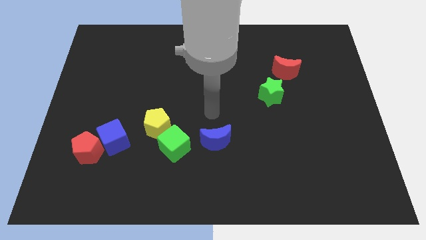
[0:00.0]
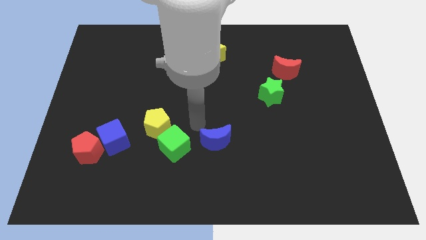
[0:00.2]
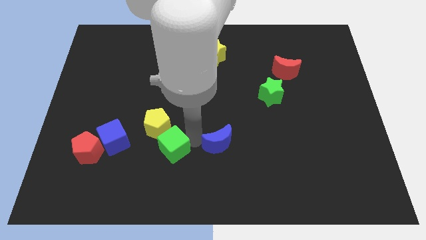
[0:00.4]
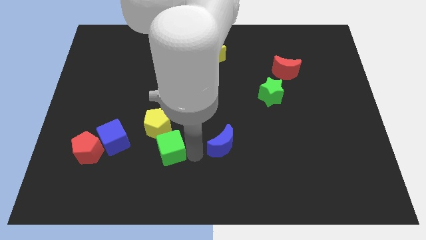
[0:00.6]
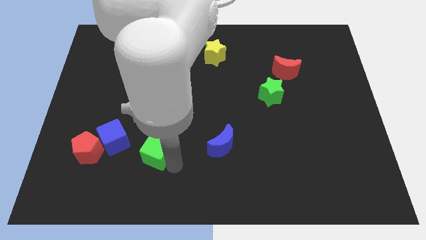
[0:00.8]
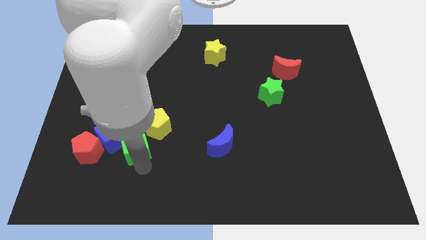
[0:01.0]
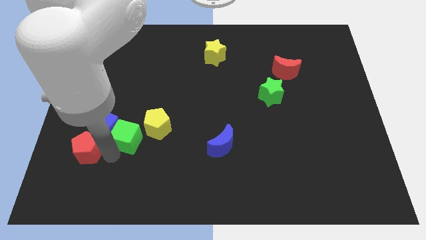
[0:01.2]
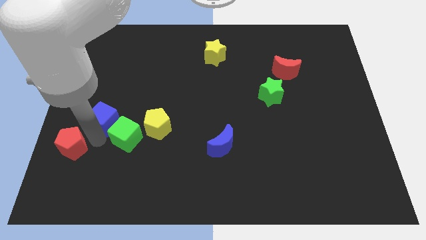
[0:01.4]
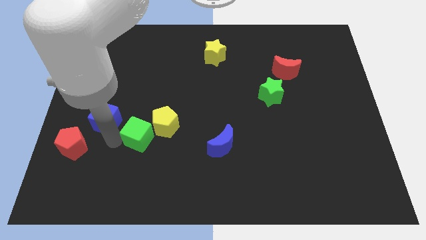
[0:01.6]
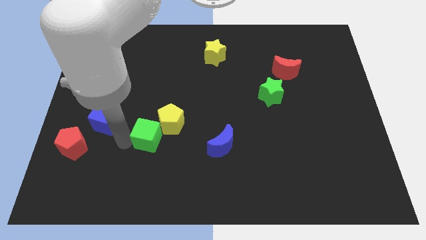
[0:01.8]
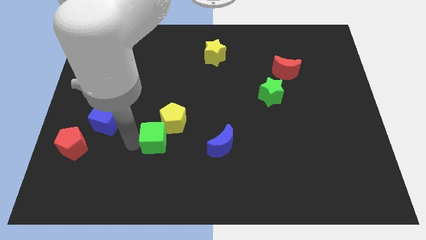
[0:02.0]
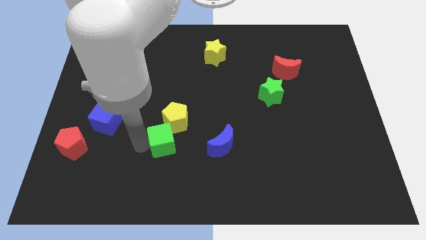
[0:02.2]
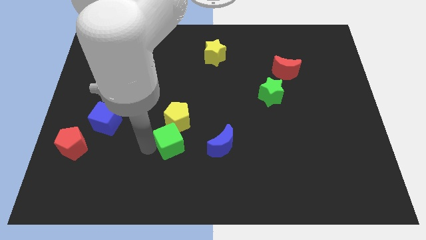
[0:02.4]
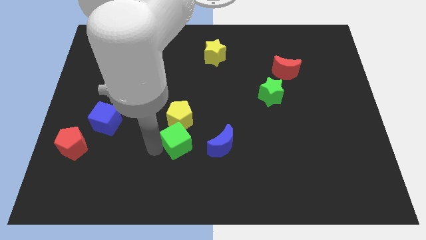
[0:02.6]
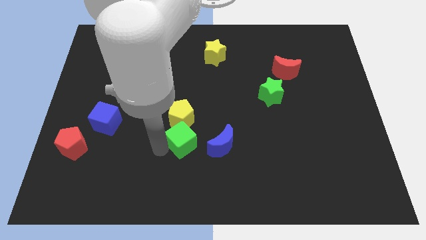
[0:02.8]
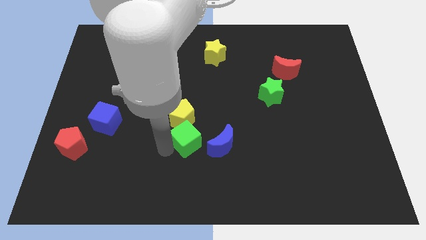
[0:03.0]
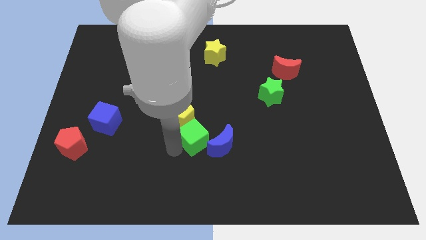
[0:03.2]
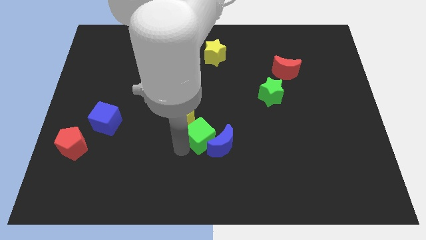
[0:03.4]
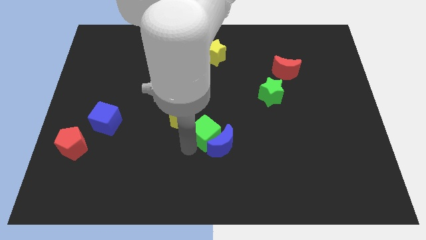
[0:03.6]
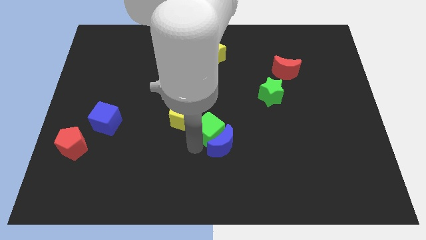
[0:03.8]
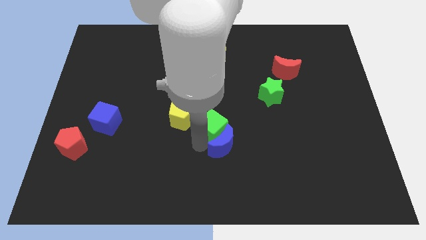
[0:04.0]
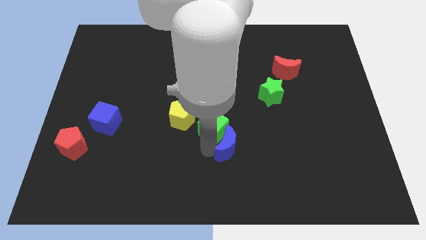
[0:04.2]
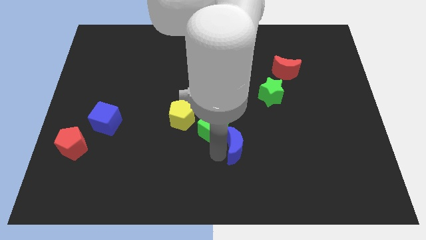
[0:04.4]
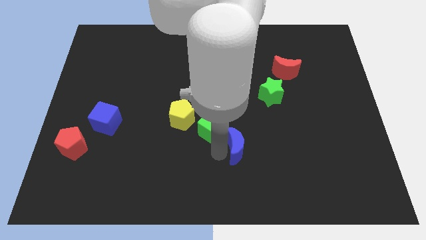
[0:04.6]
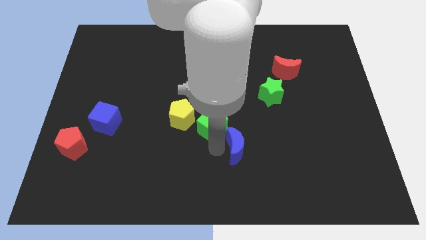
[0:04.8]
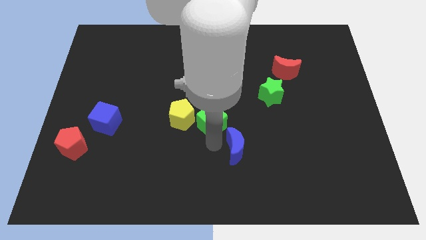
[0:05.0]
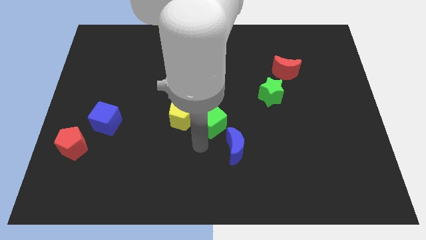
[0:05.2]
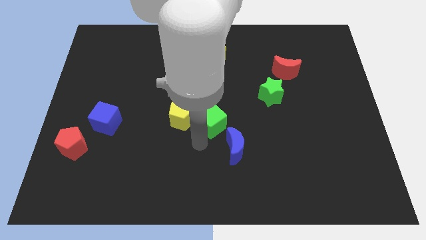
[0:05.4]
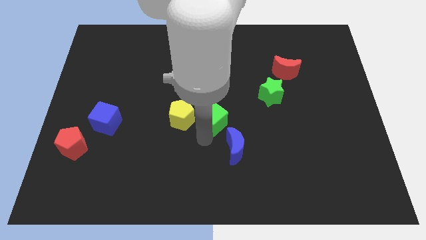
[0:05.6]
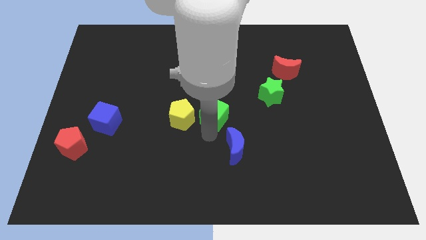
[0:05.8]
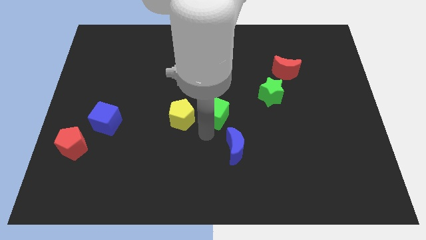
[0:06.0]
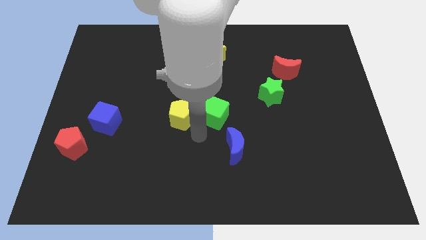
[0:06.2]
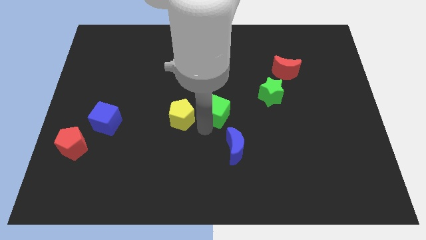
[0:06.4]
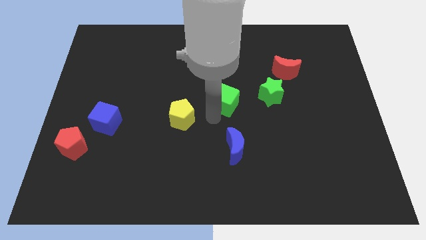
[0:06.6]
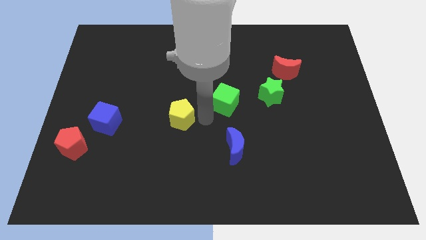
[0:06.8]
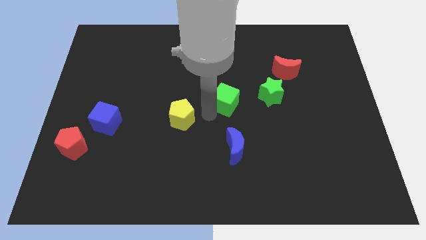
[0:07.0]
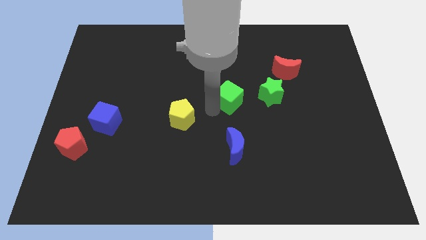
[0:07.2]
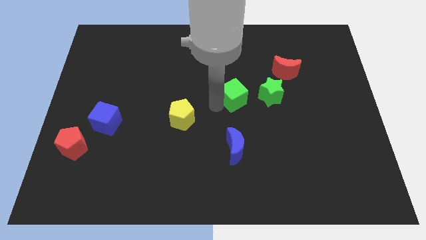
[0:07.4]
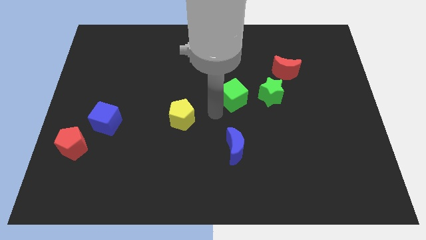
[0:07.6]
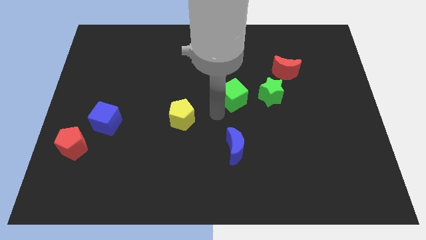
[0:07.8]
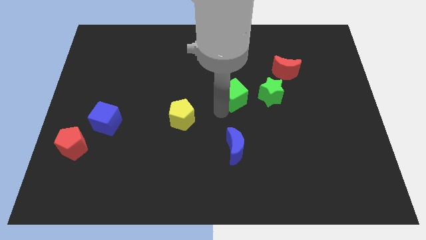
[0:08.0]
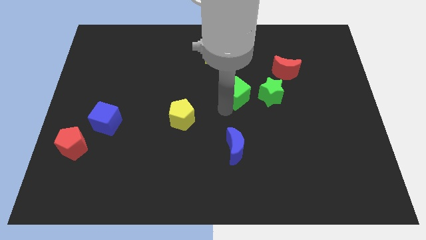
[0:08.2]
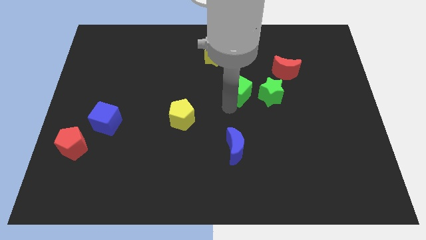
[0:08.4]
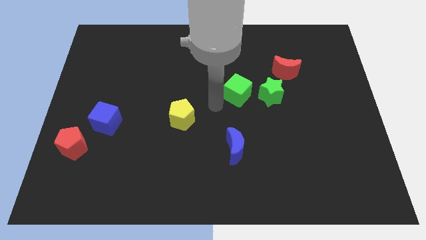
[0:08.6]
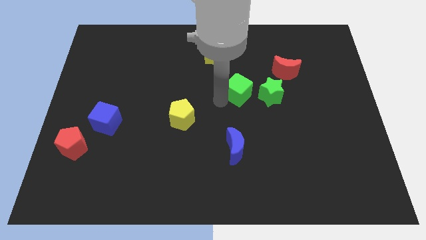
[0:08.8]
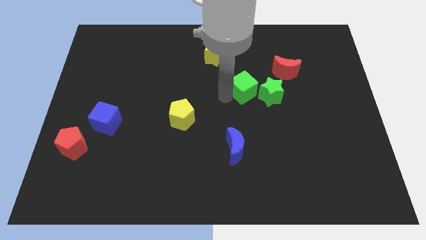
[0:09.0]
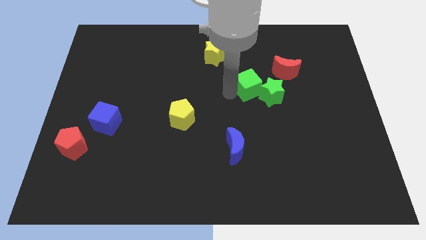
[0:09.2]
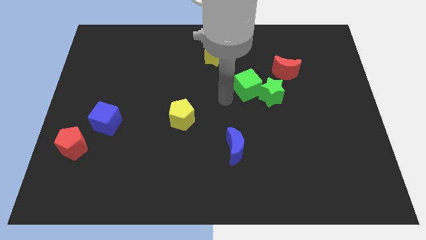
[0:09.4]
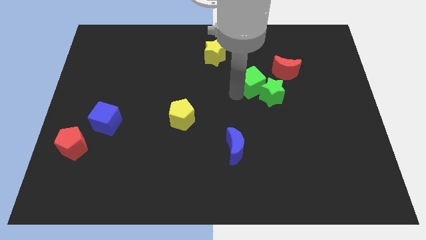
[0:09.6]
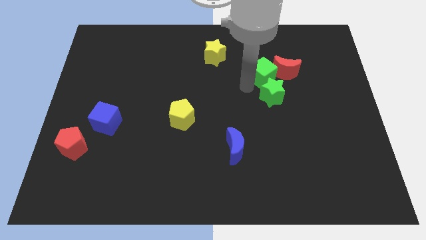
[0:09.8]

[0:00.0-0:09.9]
push the green cube next to the red moon

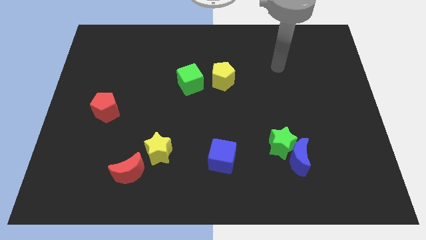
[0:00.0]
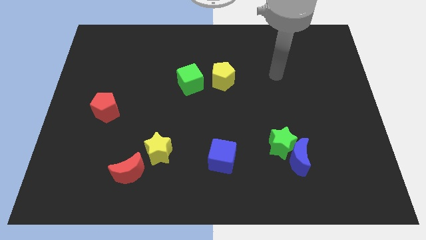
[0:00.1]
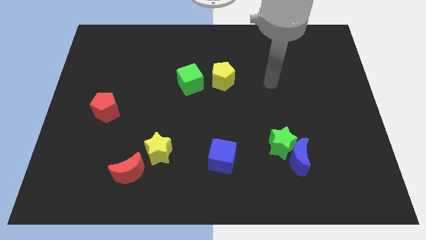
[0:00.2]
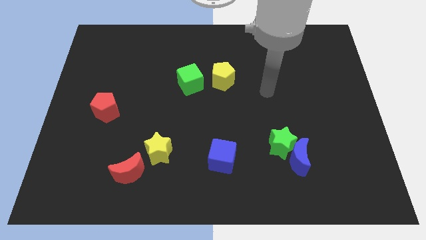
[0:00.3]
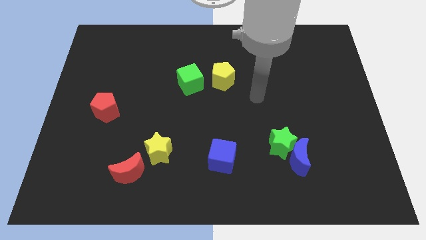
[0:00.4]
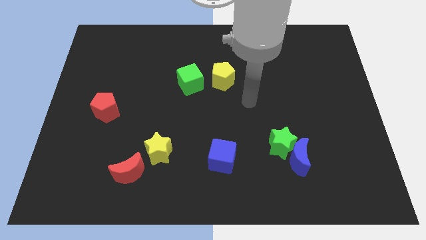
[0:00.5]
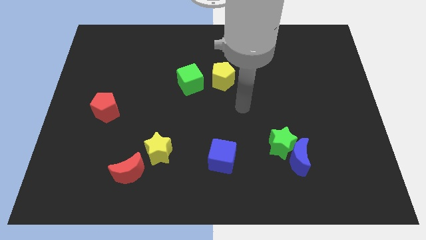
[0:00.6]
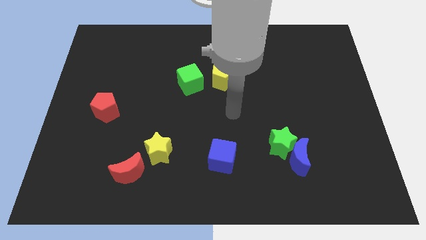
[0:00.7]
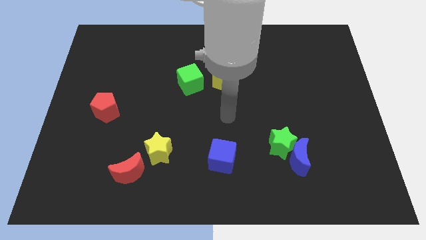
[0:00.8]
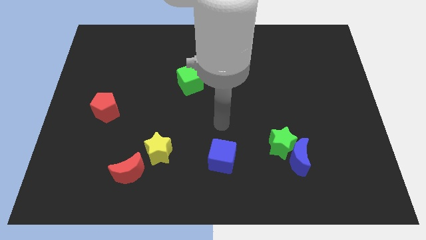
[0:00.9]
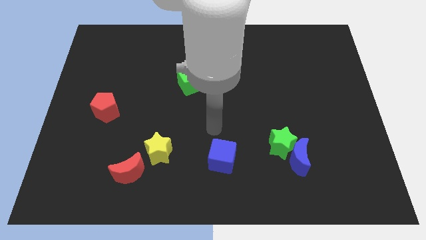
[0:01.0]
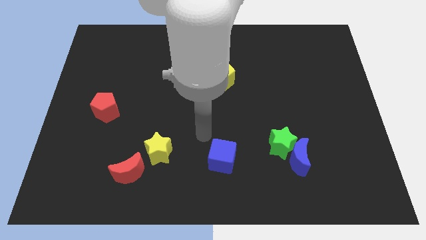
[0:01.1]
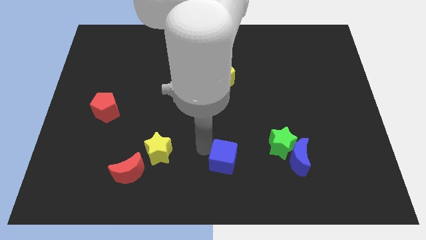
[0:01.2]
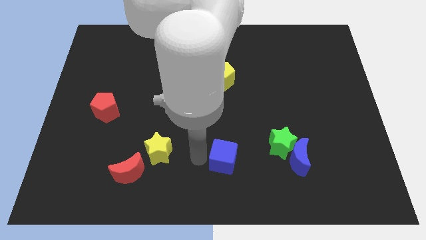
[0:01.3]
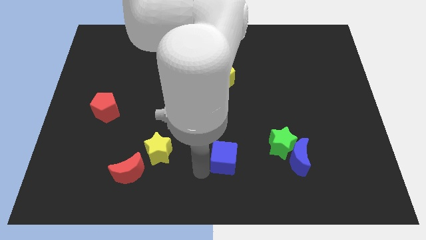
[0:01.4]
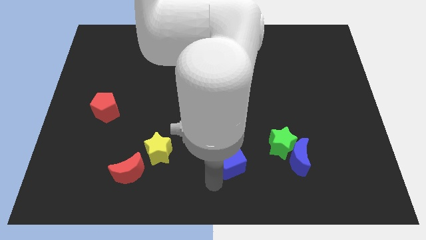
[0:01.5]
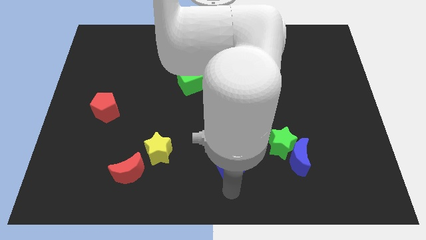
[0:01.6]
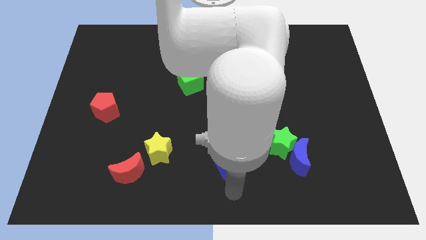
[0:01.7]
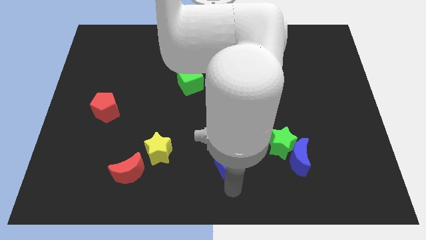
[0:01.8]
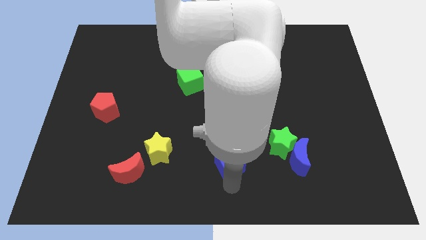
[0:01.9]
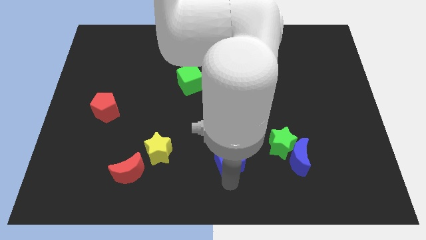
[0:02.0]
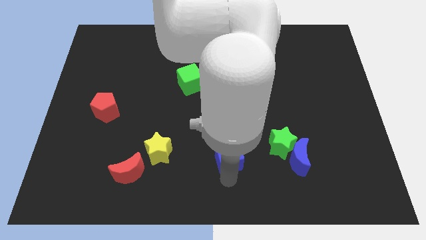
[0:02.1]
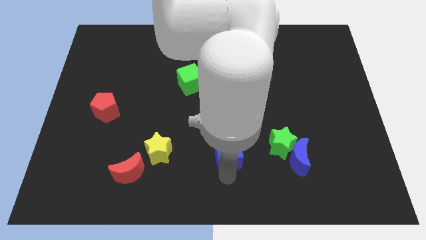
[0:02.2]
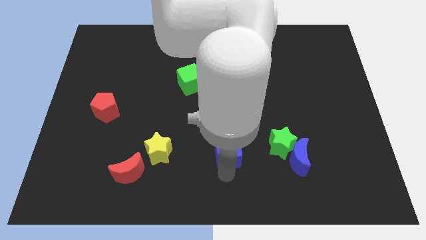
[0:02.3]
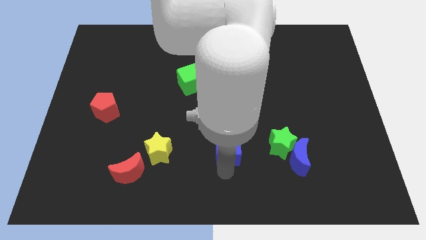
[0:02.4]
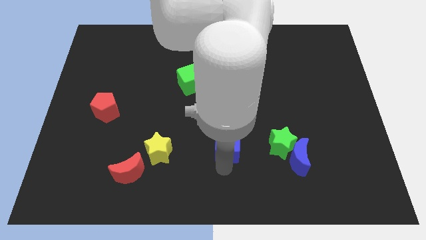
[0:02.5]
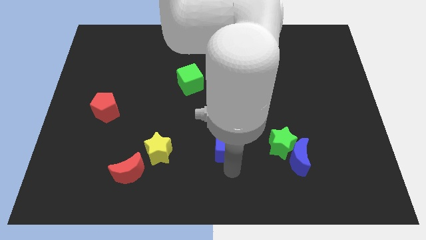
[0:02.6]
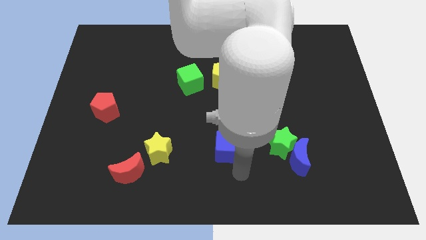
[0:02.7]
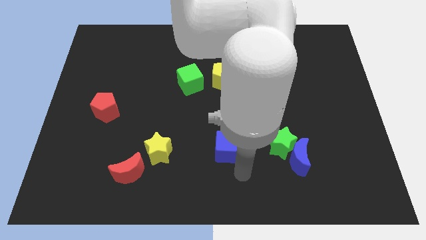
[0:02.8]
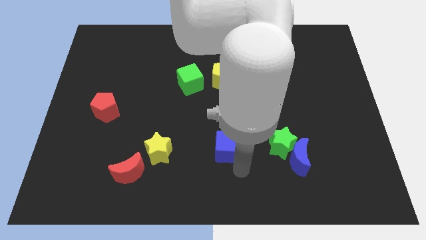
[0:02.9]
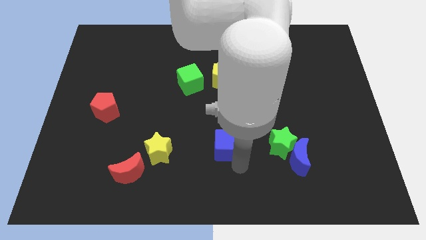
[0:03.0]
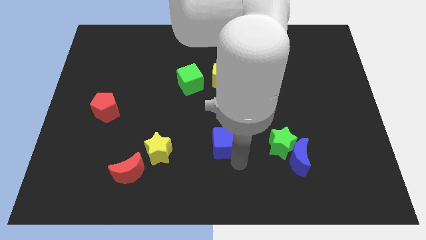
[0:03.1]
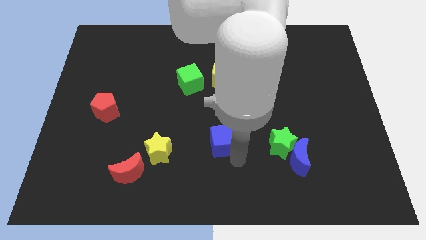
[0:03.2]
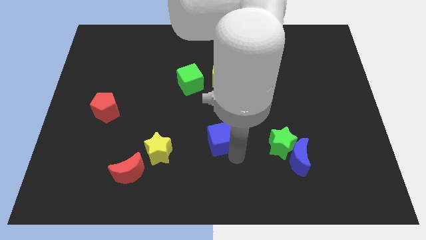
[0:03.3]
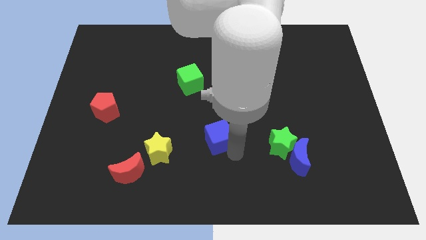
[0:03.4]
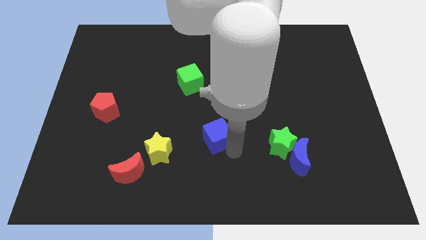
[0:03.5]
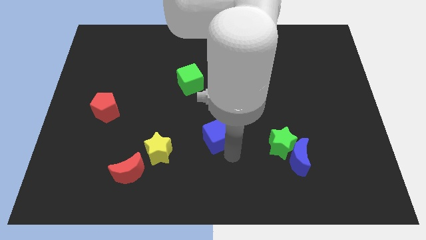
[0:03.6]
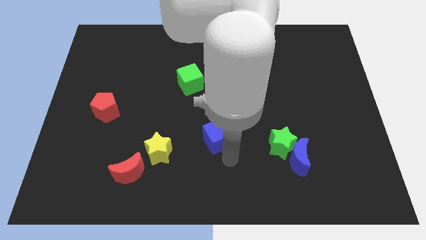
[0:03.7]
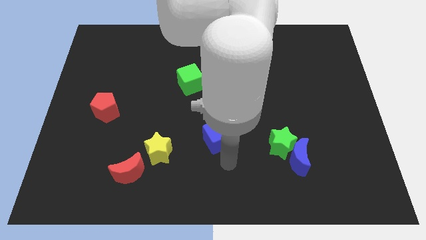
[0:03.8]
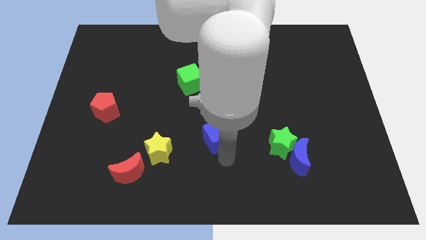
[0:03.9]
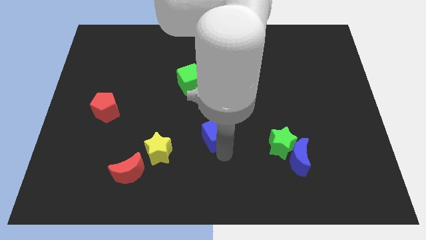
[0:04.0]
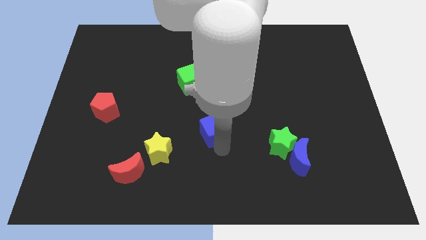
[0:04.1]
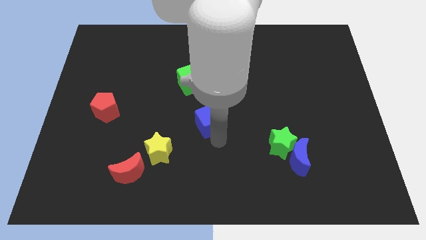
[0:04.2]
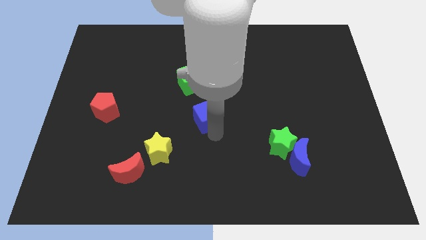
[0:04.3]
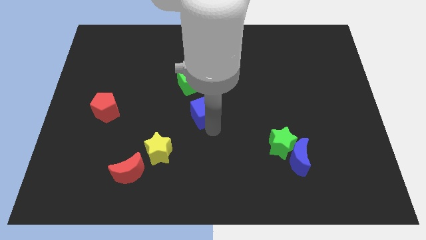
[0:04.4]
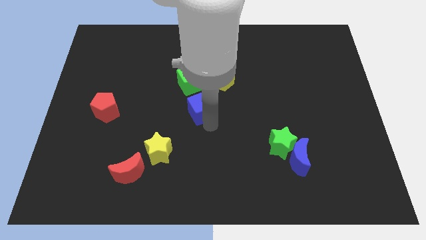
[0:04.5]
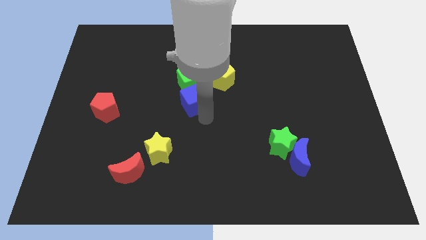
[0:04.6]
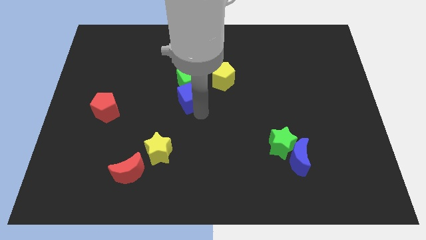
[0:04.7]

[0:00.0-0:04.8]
move the blue cube next to the green cube
